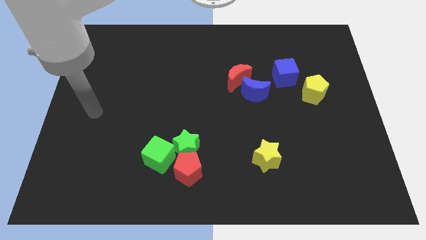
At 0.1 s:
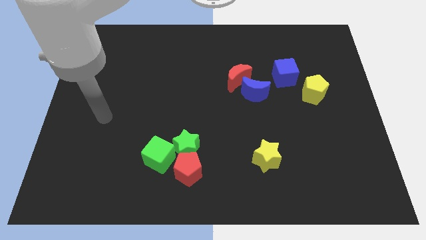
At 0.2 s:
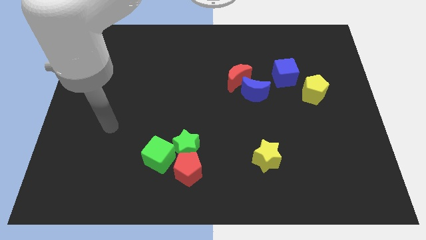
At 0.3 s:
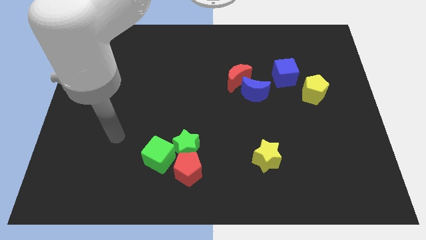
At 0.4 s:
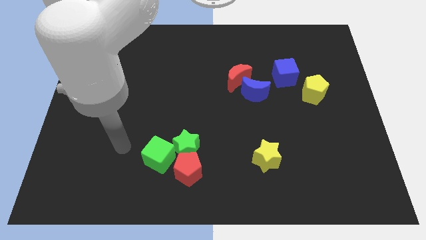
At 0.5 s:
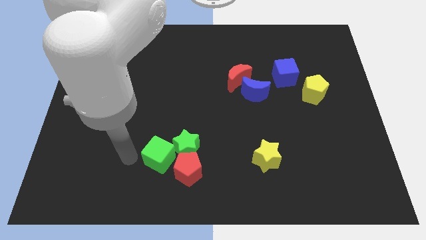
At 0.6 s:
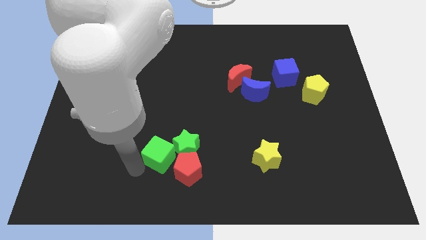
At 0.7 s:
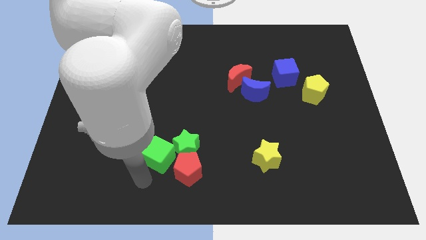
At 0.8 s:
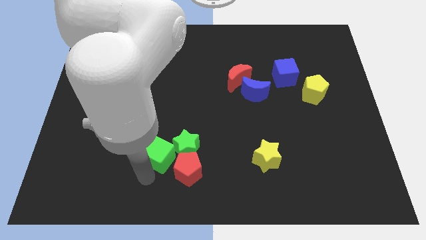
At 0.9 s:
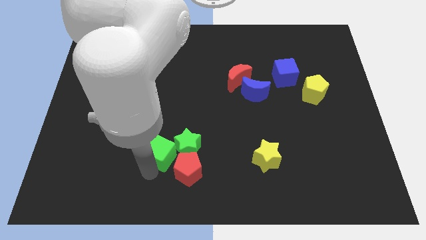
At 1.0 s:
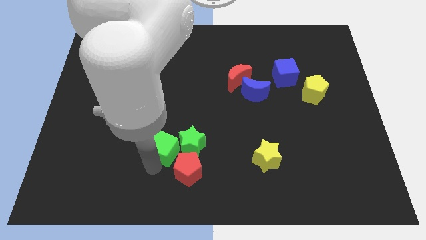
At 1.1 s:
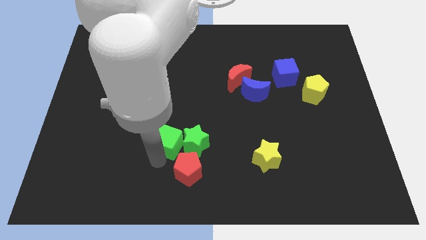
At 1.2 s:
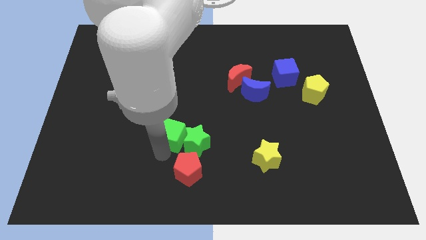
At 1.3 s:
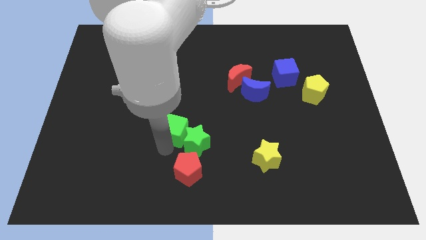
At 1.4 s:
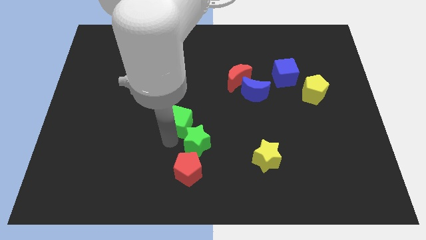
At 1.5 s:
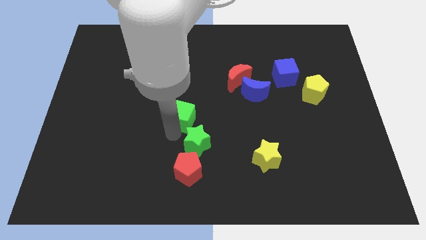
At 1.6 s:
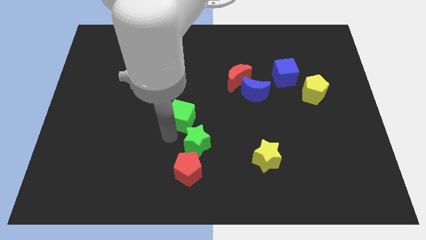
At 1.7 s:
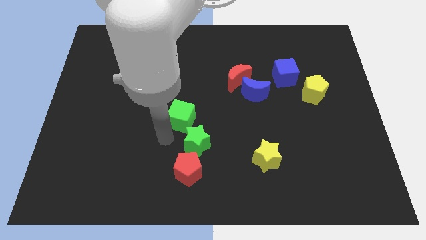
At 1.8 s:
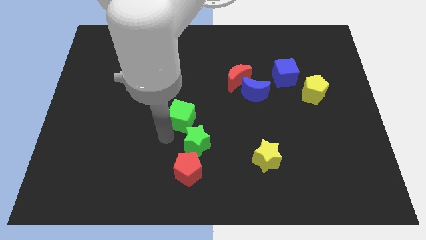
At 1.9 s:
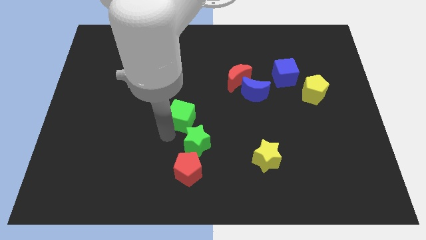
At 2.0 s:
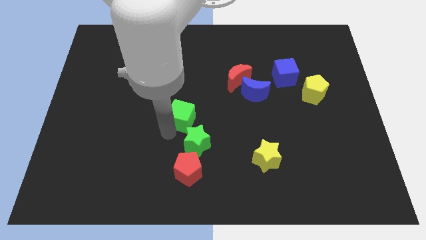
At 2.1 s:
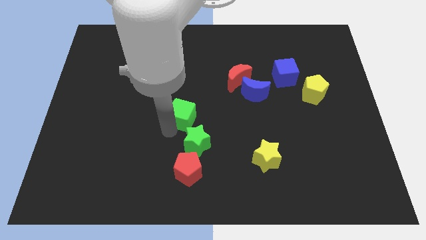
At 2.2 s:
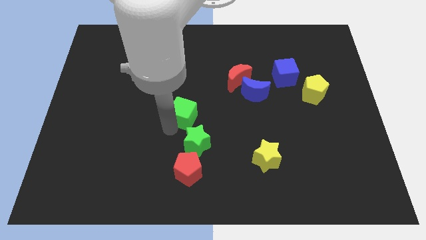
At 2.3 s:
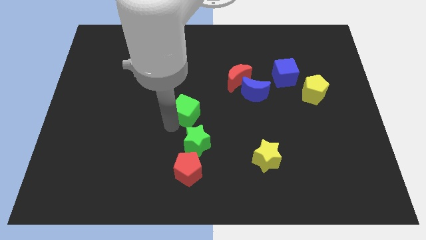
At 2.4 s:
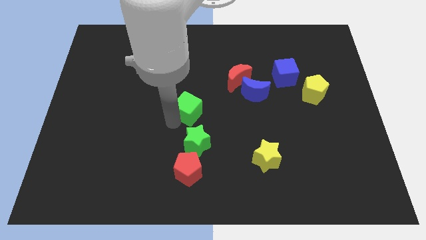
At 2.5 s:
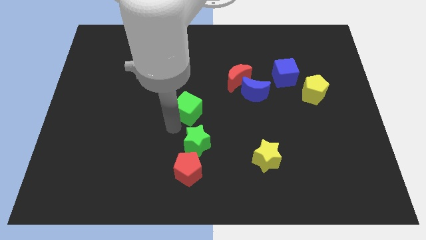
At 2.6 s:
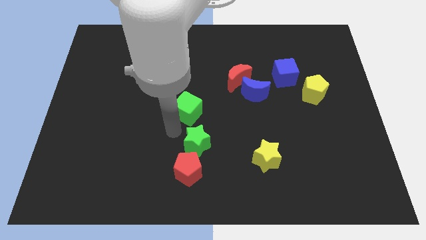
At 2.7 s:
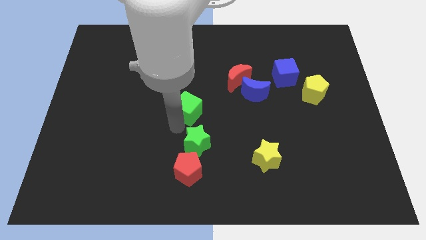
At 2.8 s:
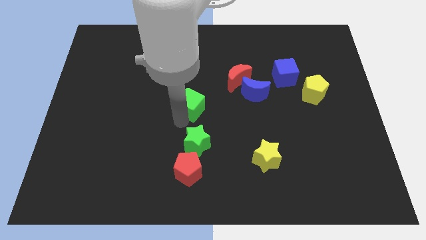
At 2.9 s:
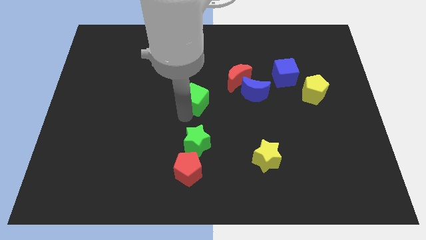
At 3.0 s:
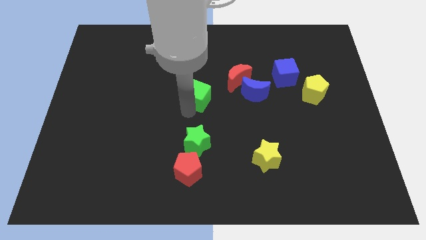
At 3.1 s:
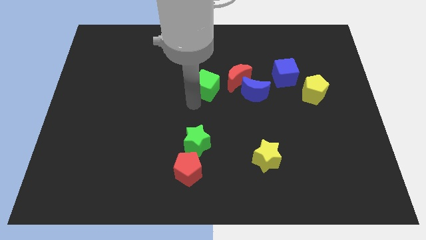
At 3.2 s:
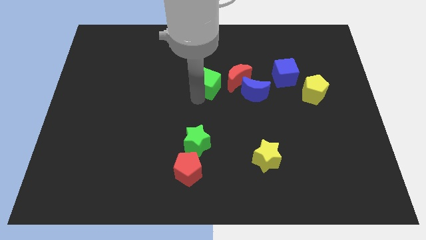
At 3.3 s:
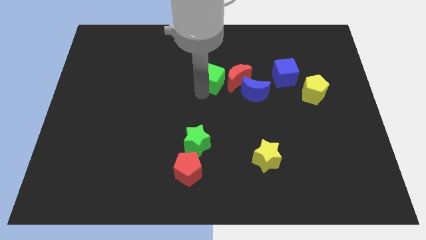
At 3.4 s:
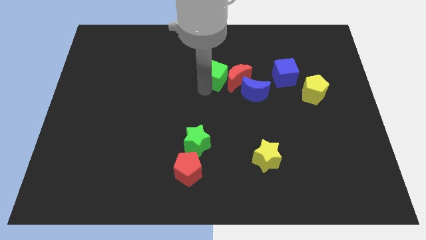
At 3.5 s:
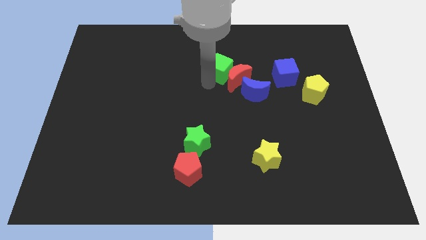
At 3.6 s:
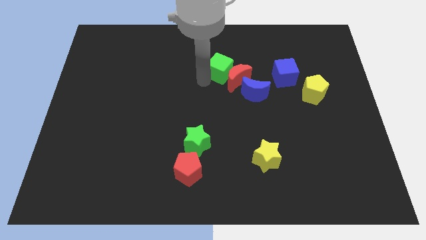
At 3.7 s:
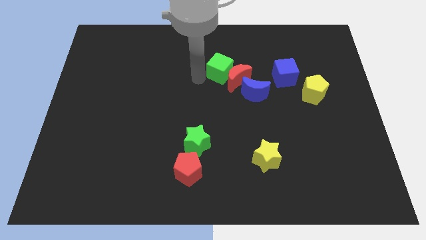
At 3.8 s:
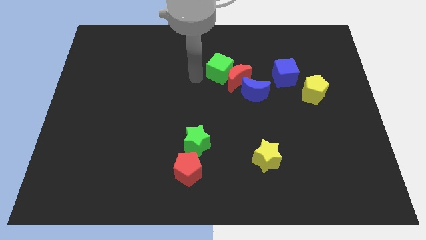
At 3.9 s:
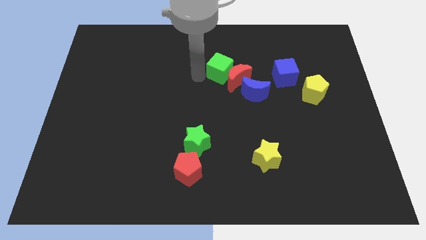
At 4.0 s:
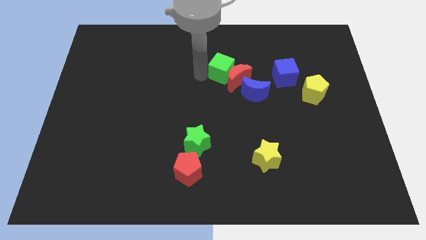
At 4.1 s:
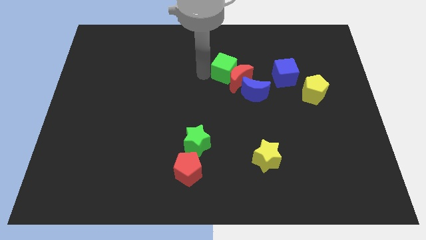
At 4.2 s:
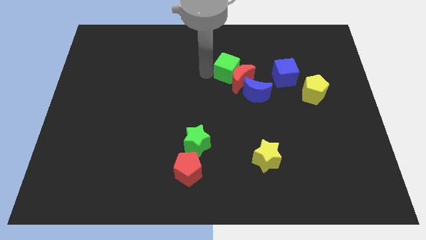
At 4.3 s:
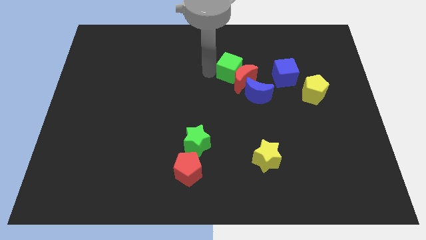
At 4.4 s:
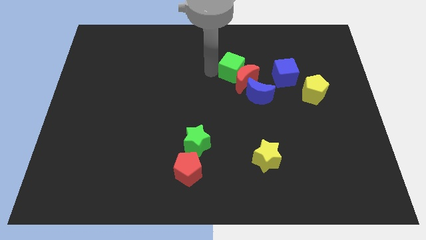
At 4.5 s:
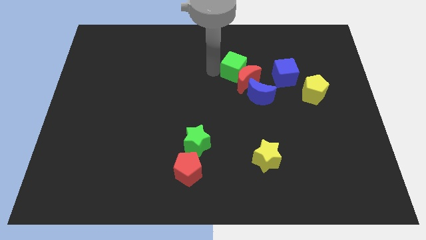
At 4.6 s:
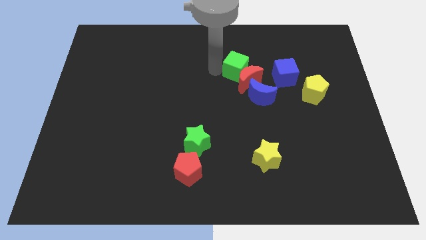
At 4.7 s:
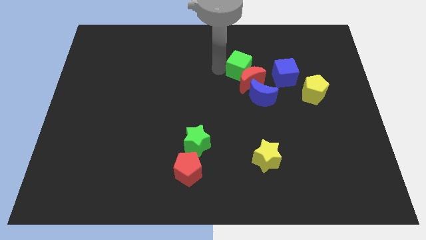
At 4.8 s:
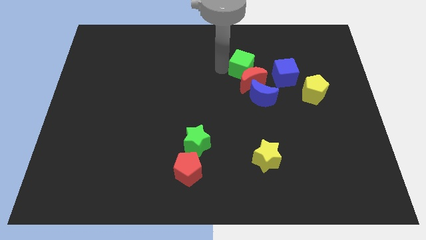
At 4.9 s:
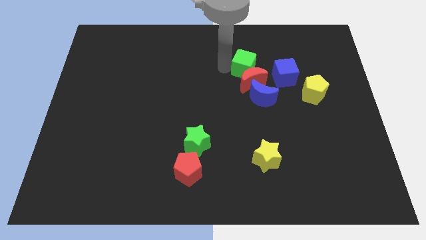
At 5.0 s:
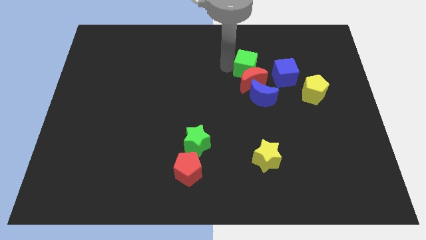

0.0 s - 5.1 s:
push the green cube to the top left side of the blue cube

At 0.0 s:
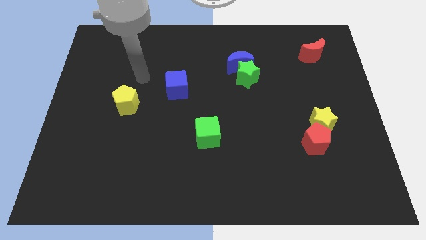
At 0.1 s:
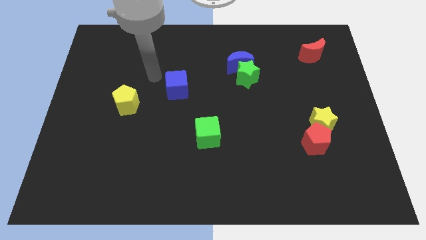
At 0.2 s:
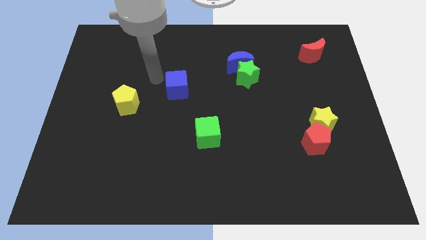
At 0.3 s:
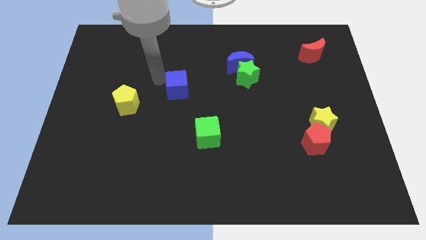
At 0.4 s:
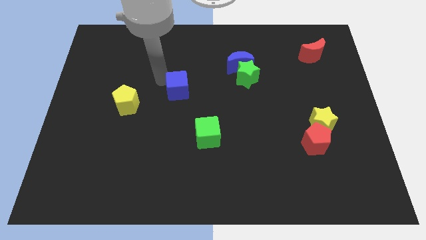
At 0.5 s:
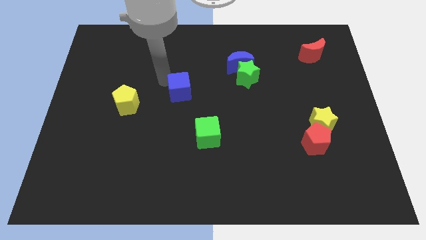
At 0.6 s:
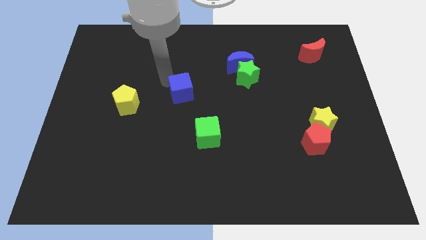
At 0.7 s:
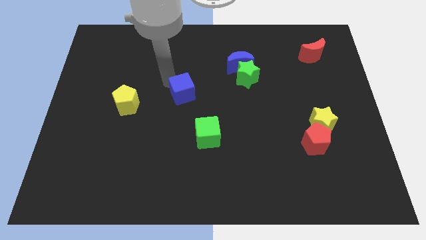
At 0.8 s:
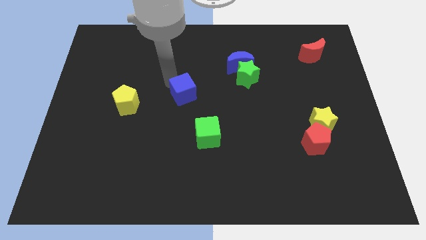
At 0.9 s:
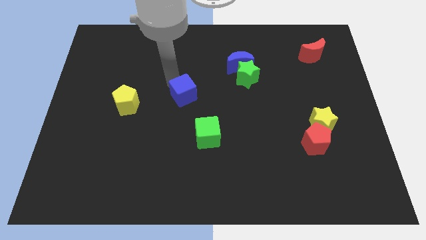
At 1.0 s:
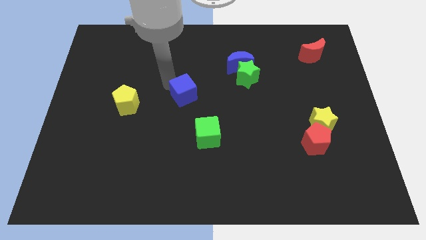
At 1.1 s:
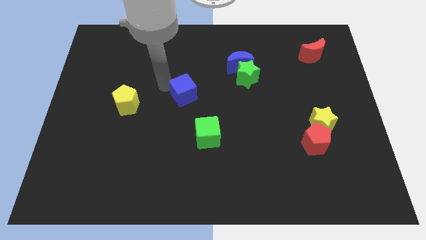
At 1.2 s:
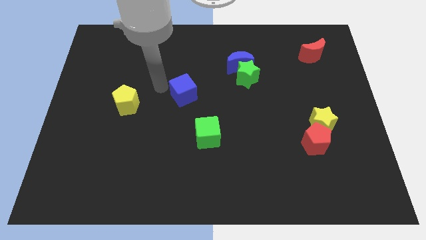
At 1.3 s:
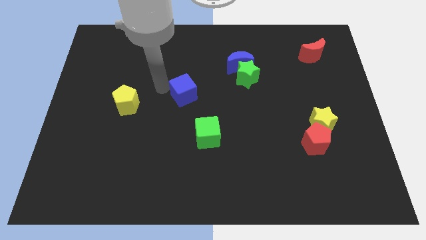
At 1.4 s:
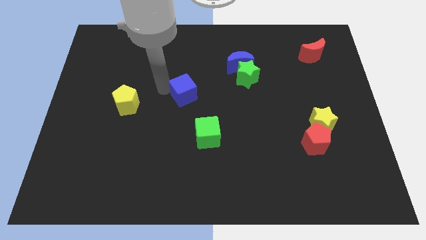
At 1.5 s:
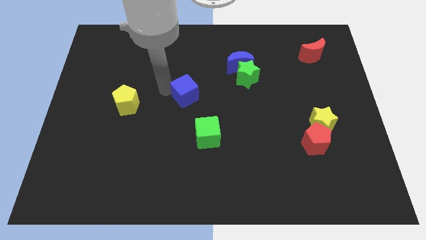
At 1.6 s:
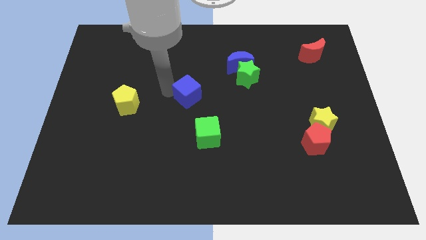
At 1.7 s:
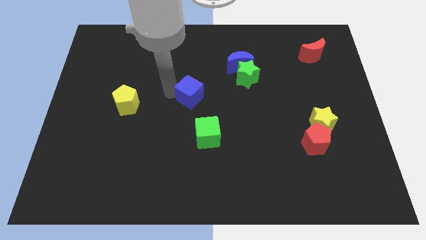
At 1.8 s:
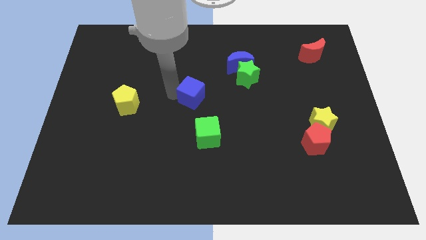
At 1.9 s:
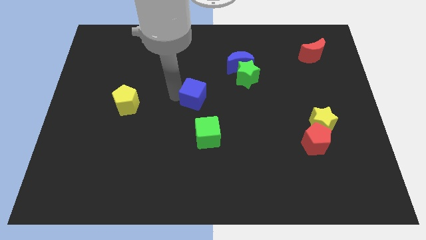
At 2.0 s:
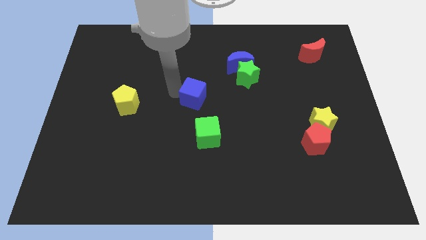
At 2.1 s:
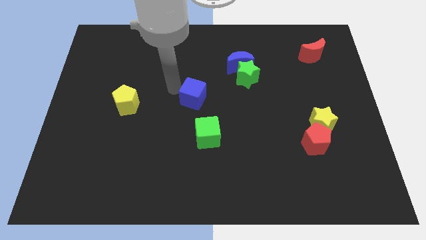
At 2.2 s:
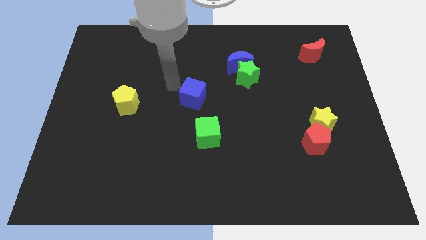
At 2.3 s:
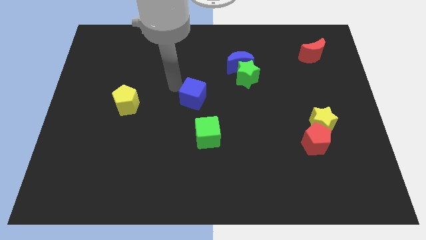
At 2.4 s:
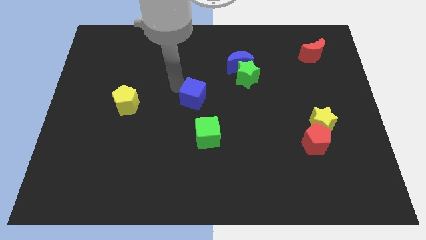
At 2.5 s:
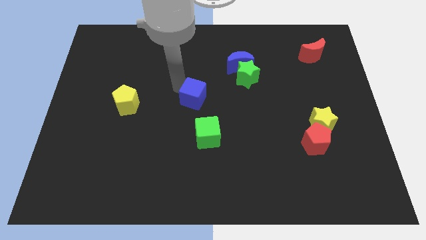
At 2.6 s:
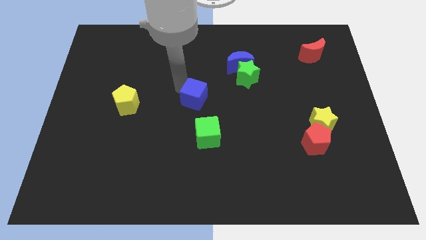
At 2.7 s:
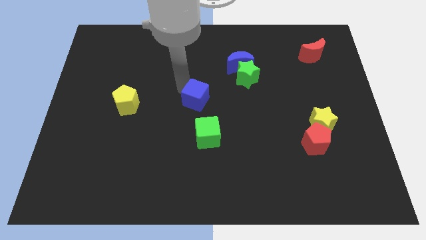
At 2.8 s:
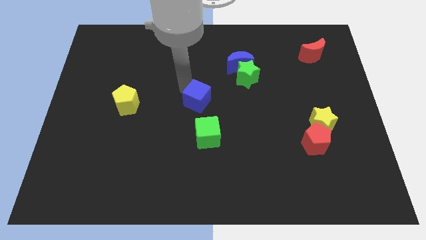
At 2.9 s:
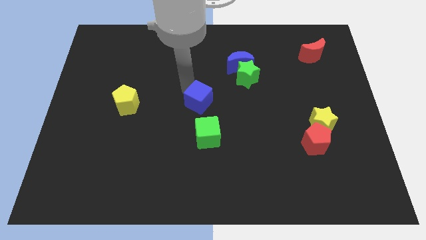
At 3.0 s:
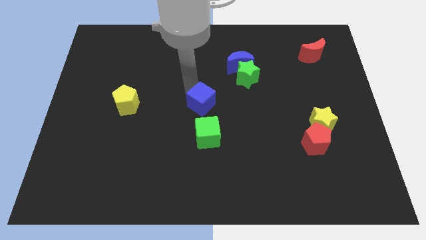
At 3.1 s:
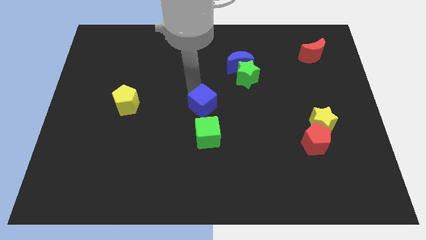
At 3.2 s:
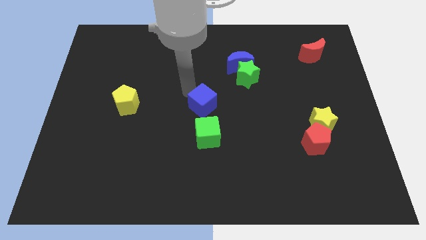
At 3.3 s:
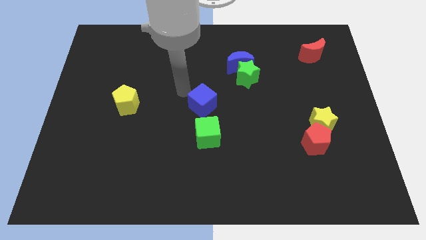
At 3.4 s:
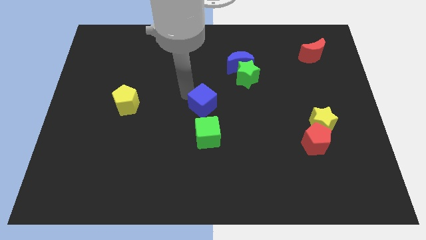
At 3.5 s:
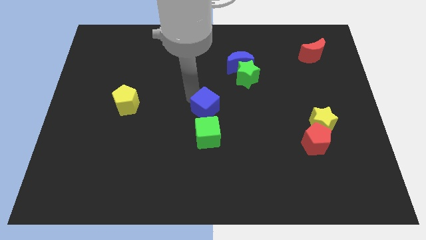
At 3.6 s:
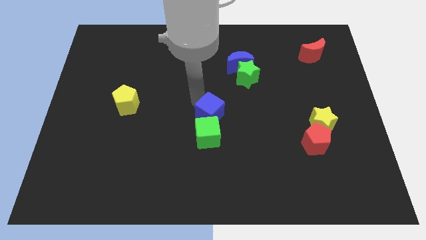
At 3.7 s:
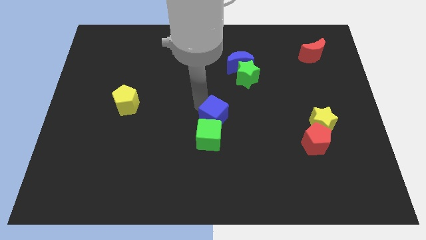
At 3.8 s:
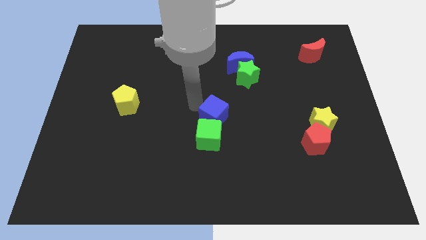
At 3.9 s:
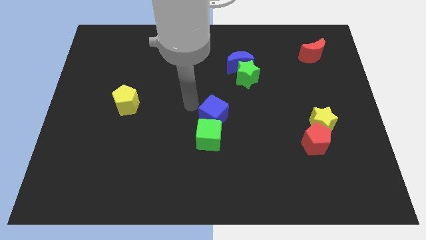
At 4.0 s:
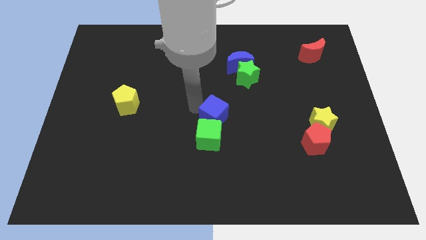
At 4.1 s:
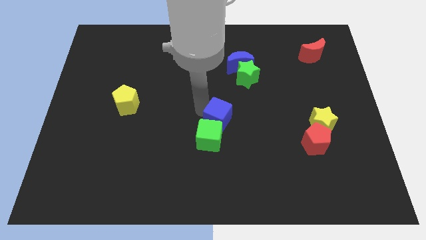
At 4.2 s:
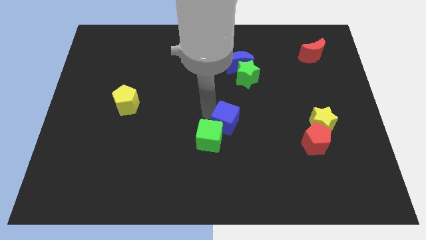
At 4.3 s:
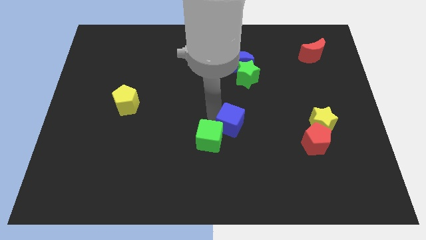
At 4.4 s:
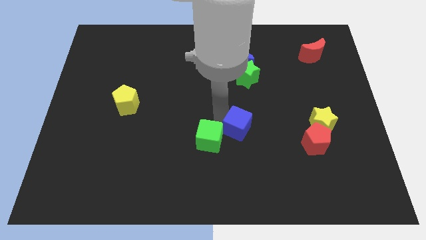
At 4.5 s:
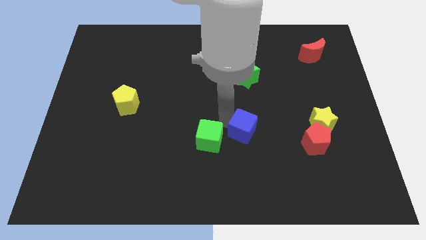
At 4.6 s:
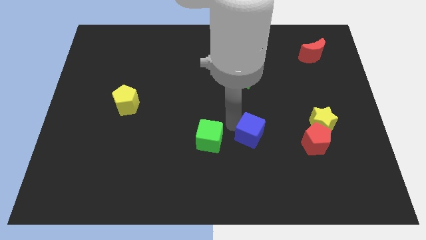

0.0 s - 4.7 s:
slide the blue cube to the left side of the red pentagon
